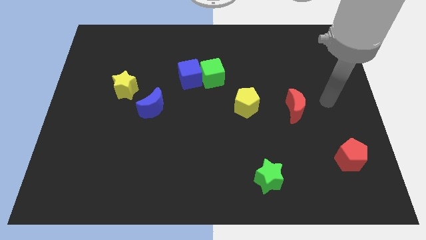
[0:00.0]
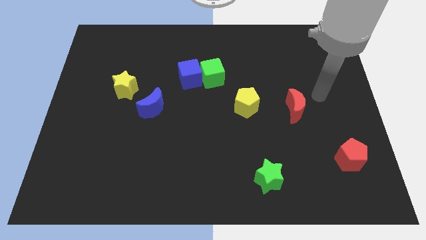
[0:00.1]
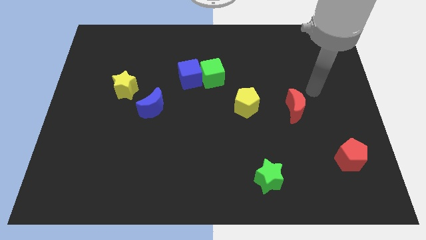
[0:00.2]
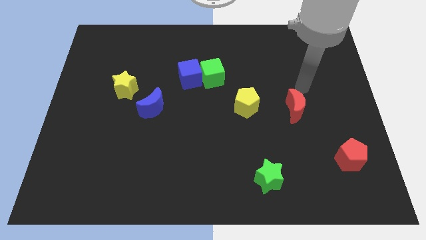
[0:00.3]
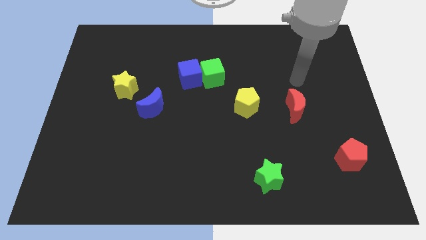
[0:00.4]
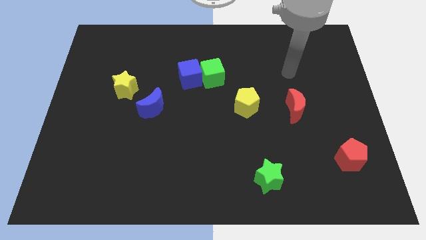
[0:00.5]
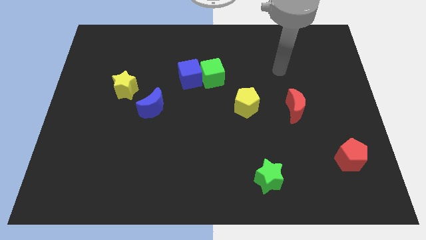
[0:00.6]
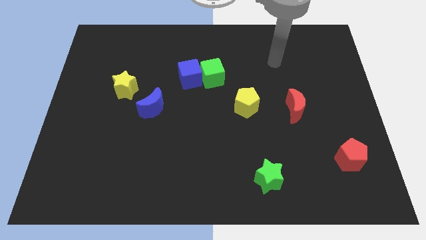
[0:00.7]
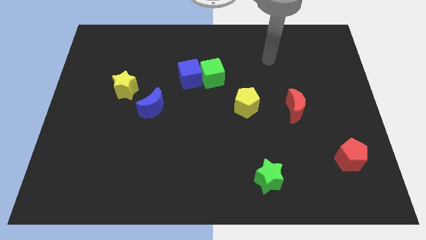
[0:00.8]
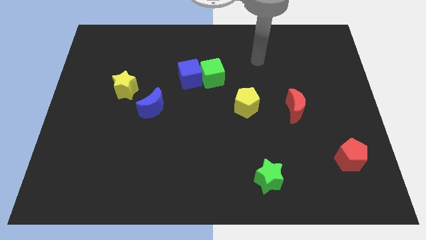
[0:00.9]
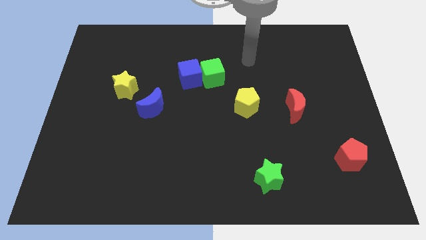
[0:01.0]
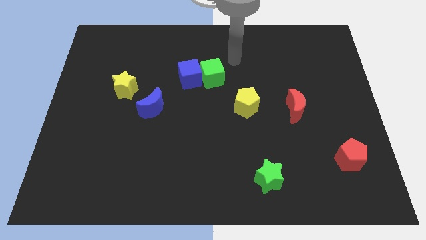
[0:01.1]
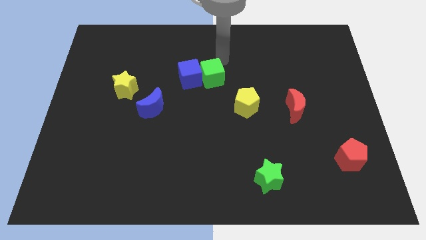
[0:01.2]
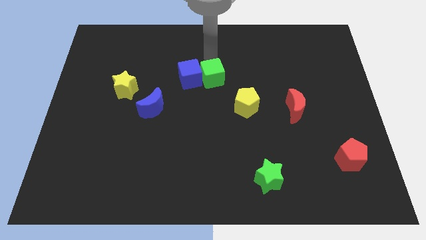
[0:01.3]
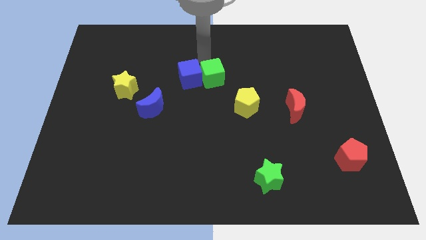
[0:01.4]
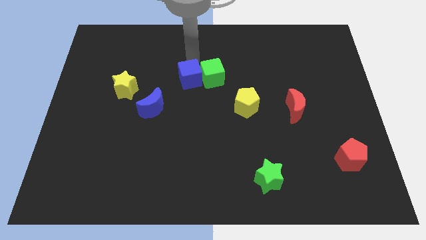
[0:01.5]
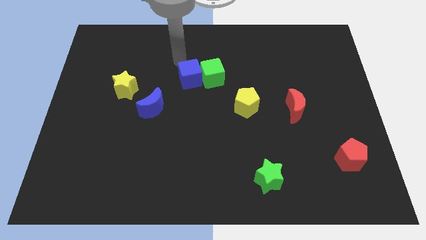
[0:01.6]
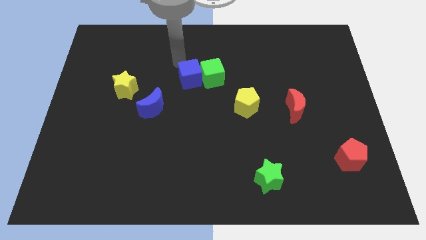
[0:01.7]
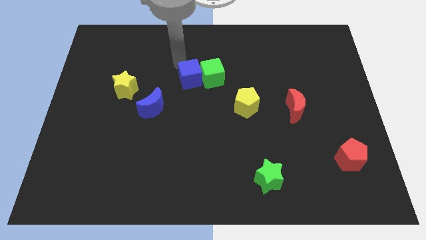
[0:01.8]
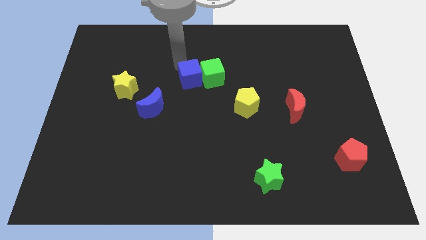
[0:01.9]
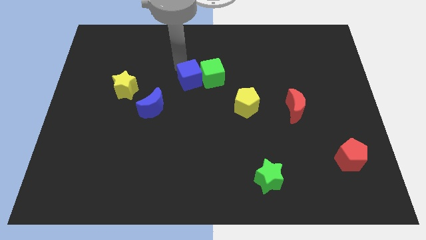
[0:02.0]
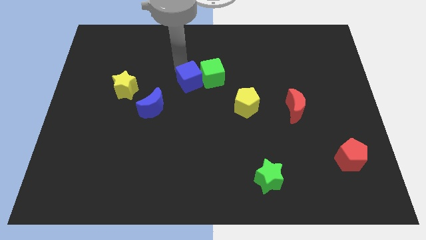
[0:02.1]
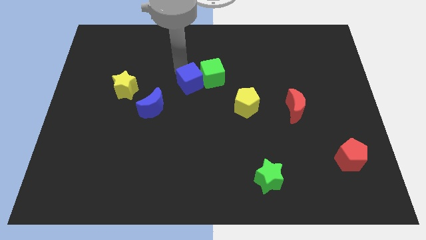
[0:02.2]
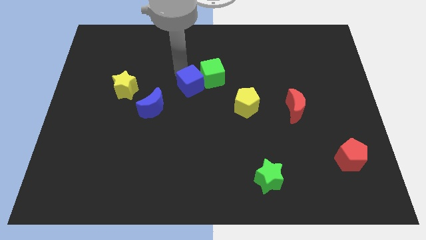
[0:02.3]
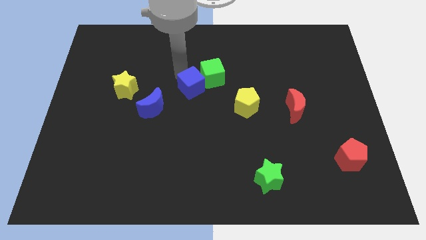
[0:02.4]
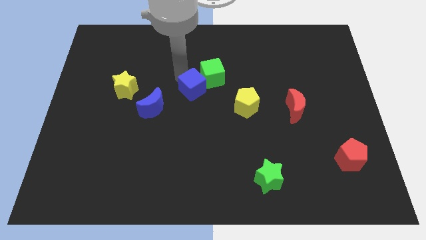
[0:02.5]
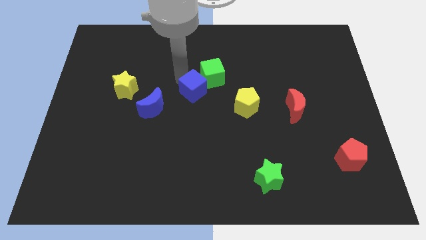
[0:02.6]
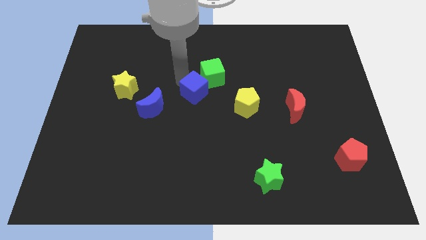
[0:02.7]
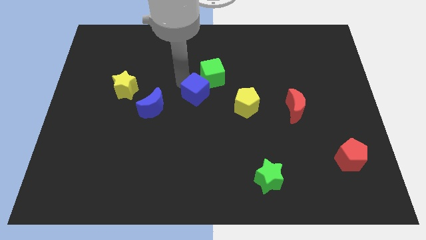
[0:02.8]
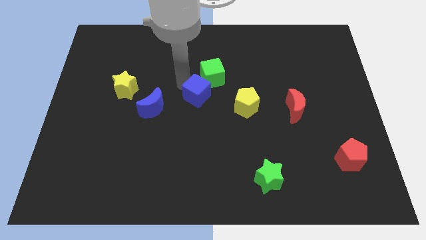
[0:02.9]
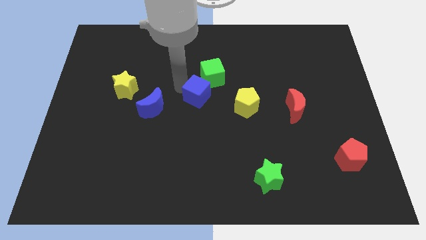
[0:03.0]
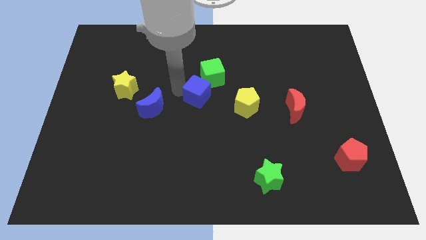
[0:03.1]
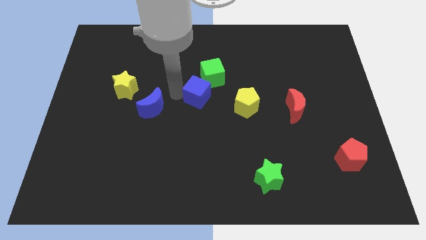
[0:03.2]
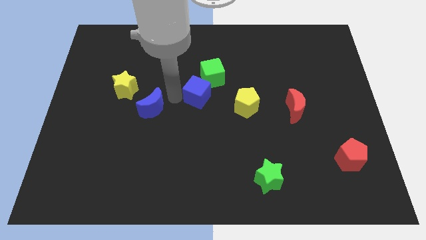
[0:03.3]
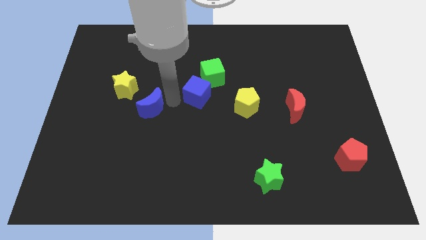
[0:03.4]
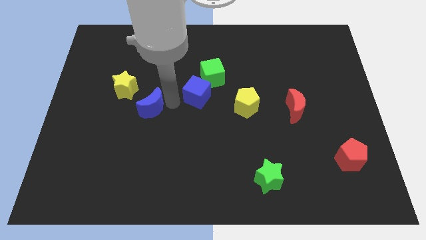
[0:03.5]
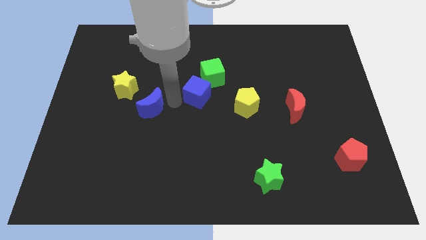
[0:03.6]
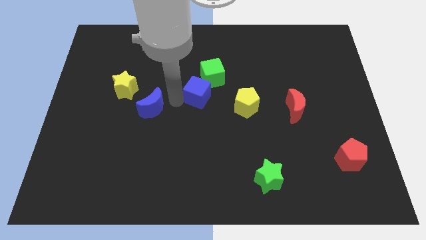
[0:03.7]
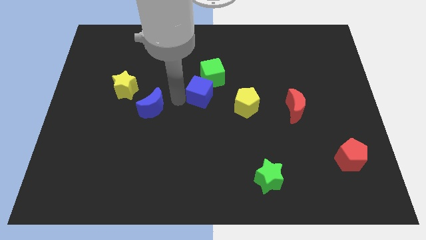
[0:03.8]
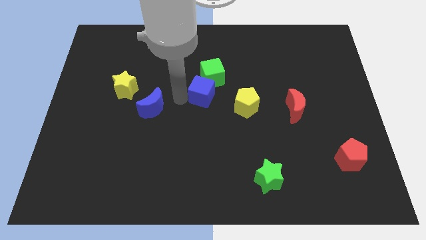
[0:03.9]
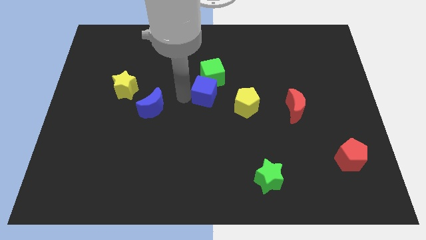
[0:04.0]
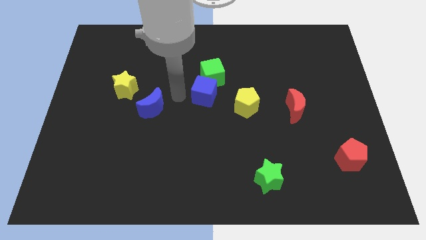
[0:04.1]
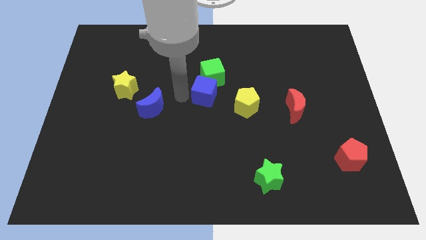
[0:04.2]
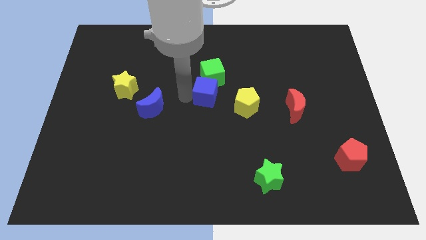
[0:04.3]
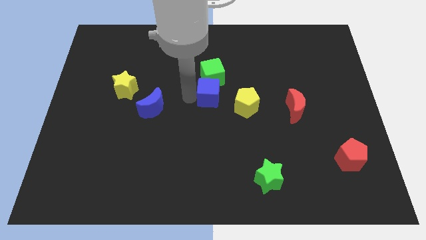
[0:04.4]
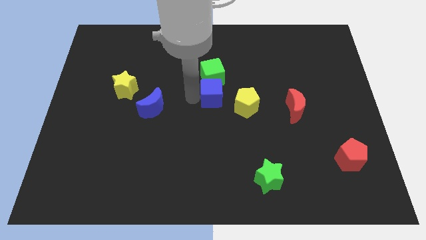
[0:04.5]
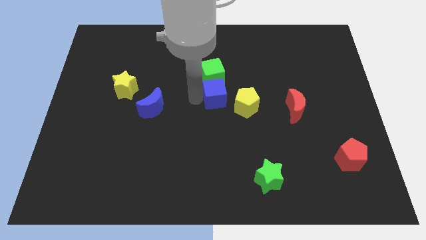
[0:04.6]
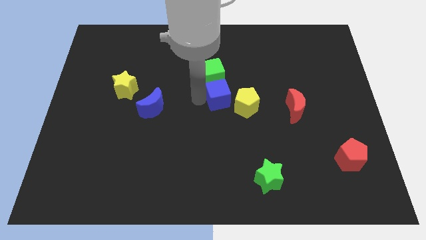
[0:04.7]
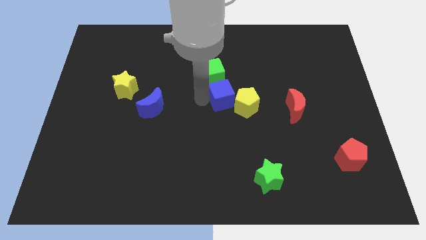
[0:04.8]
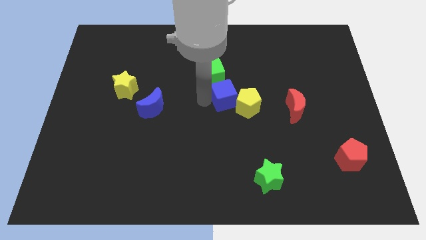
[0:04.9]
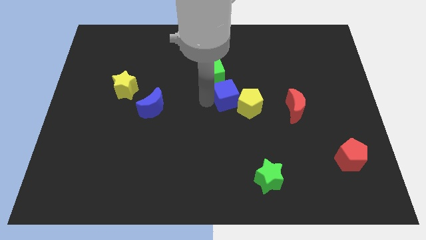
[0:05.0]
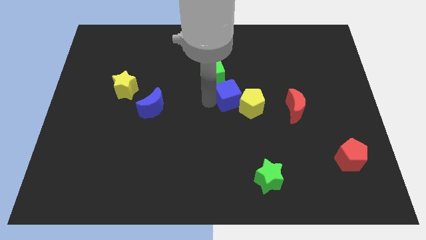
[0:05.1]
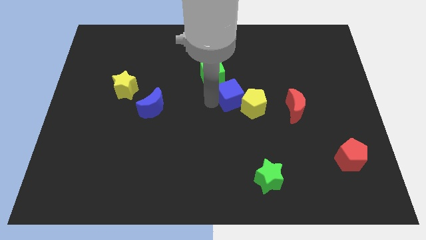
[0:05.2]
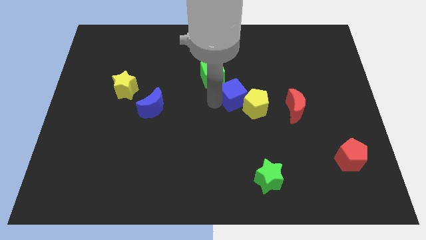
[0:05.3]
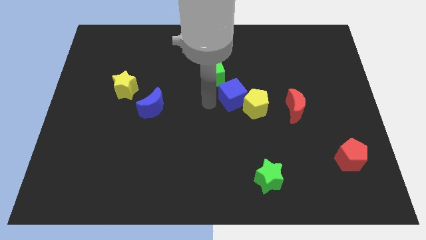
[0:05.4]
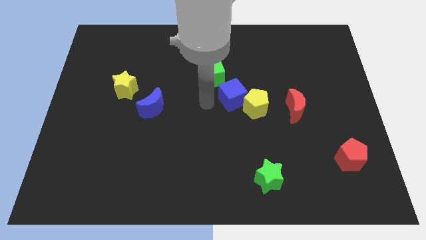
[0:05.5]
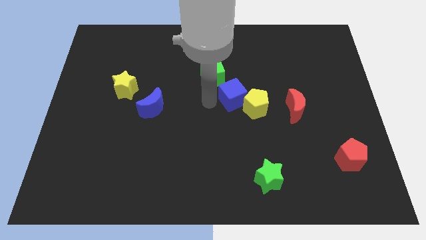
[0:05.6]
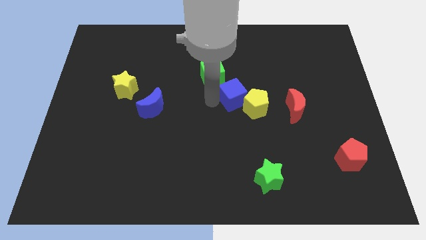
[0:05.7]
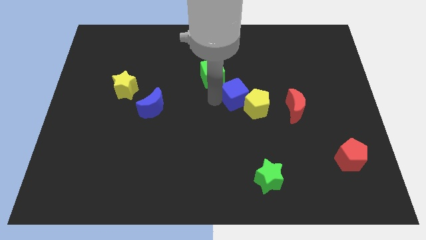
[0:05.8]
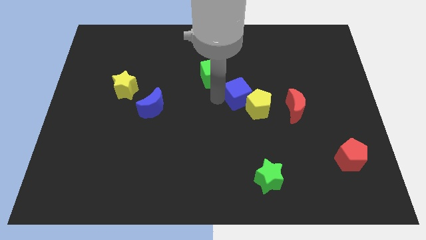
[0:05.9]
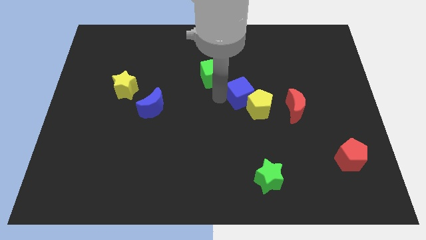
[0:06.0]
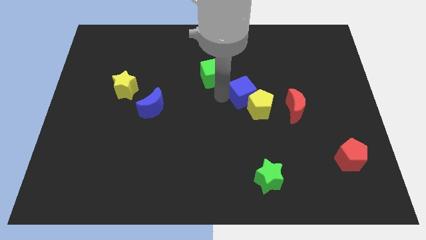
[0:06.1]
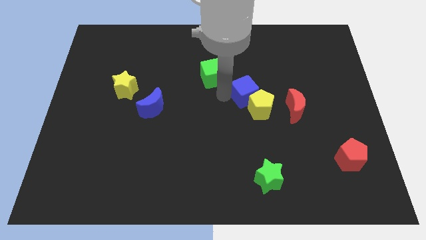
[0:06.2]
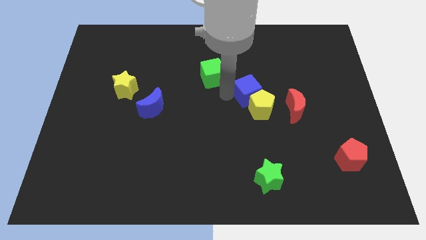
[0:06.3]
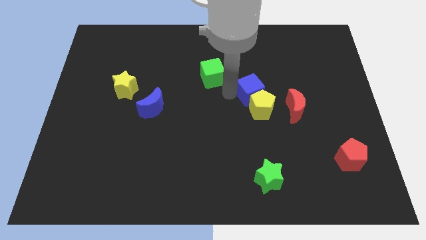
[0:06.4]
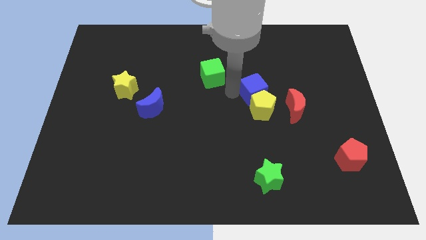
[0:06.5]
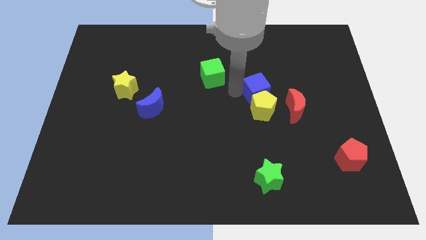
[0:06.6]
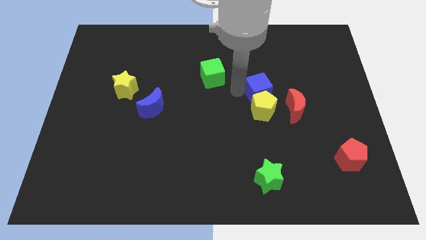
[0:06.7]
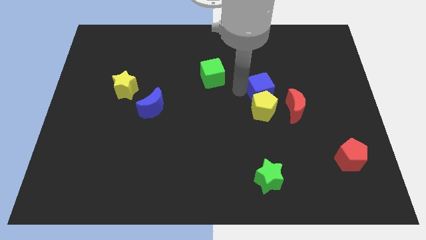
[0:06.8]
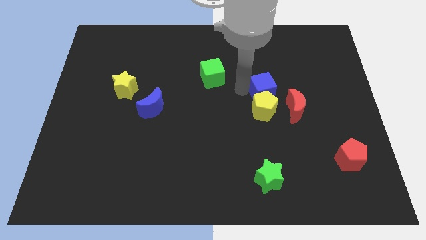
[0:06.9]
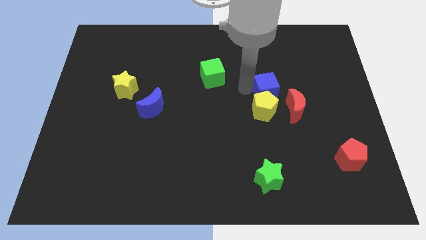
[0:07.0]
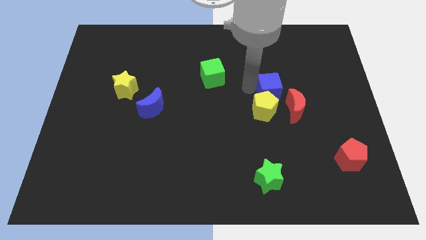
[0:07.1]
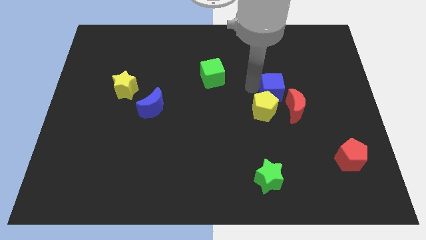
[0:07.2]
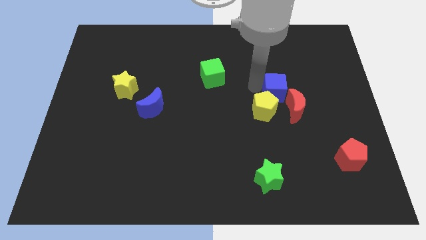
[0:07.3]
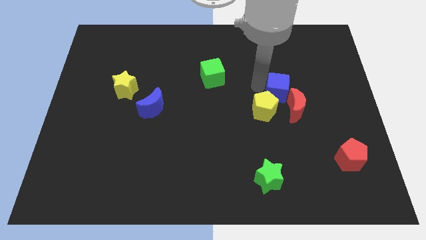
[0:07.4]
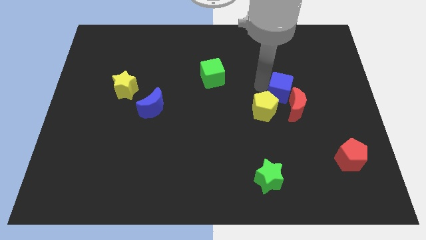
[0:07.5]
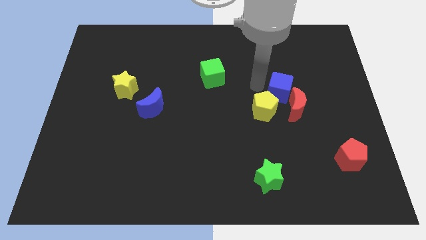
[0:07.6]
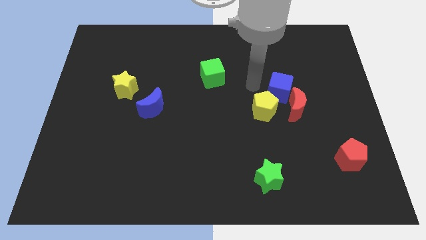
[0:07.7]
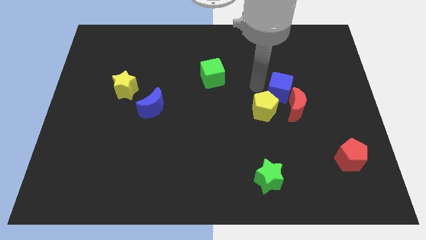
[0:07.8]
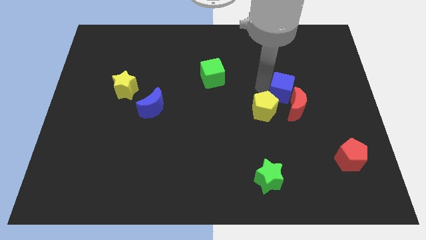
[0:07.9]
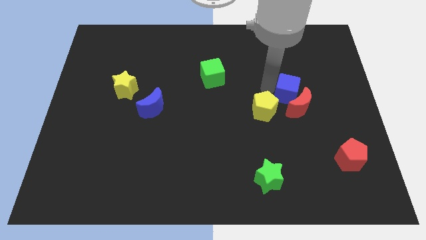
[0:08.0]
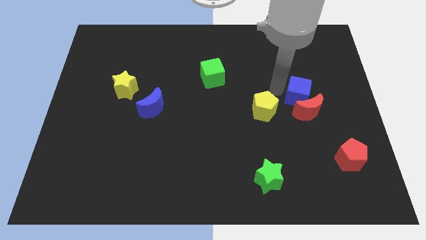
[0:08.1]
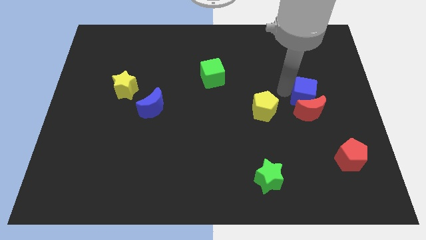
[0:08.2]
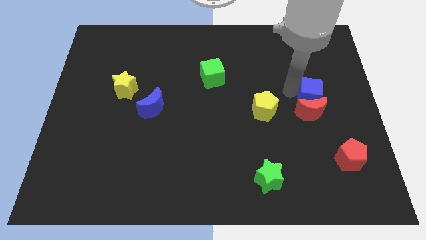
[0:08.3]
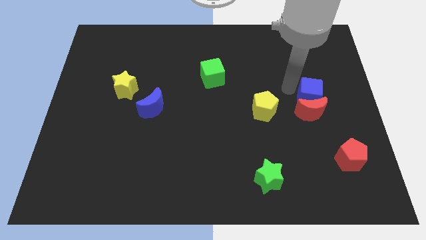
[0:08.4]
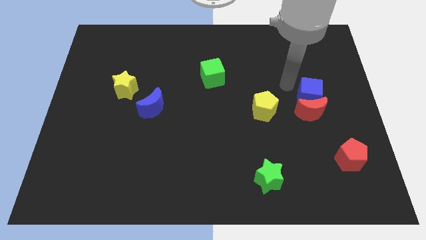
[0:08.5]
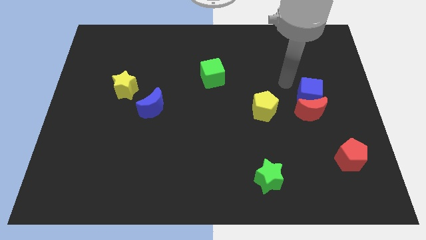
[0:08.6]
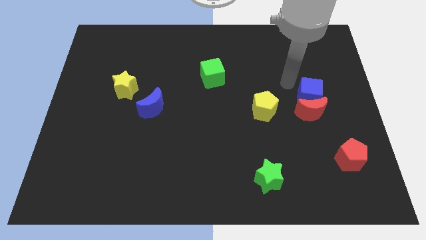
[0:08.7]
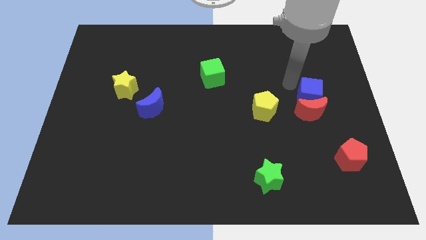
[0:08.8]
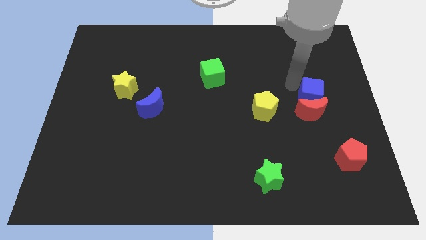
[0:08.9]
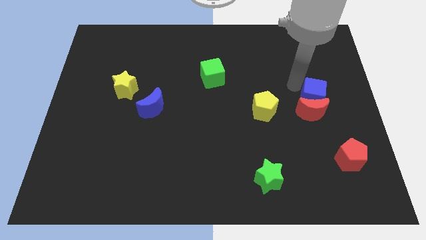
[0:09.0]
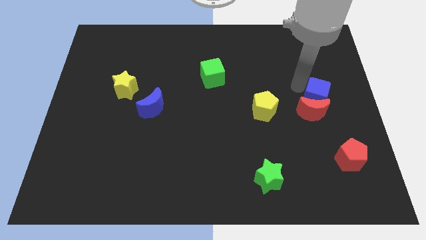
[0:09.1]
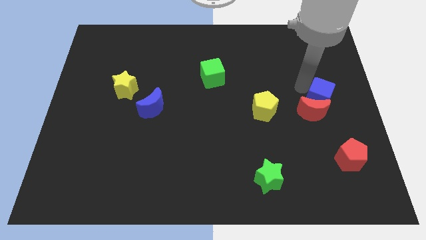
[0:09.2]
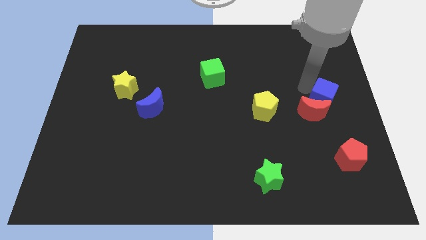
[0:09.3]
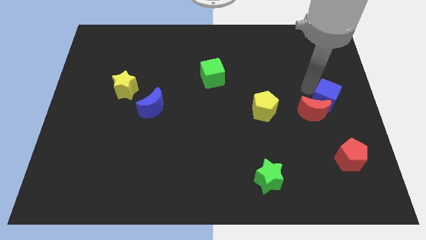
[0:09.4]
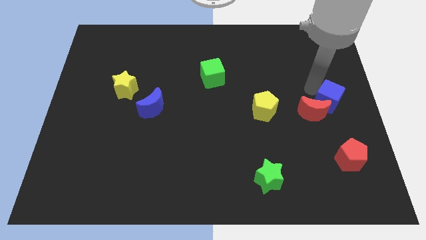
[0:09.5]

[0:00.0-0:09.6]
push the blue cube to the top side of the red pentagon
